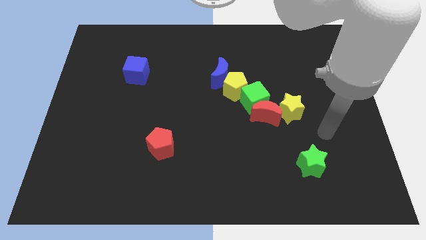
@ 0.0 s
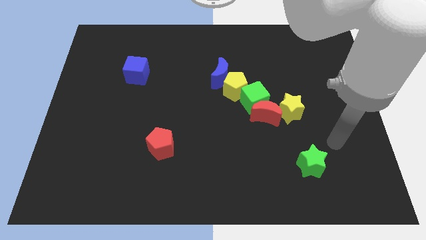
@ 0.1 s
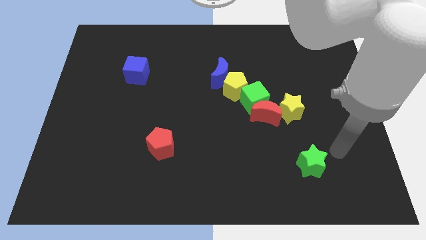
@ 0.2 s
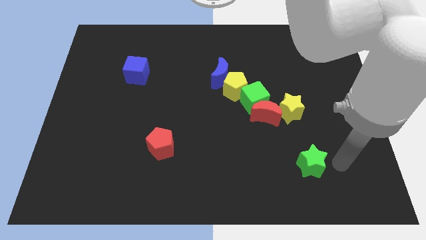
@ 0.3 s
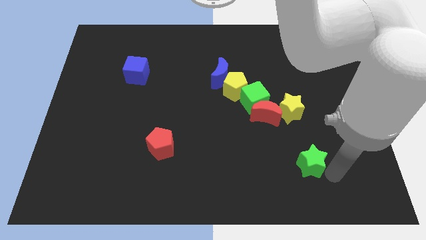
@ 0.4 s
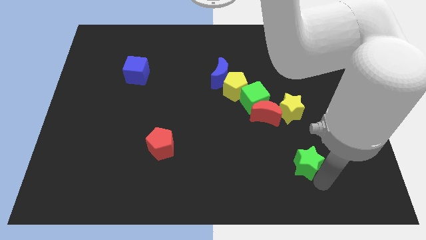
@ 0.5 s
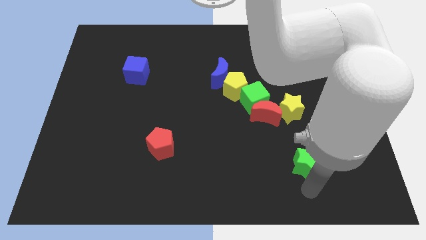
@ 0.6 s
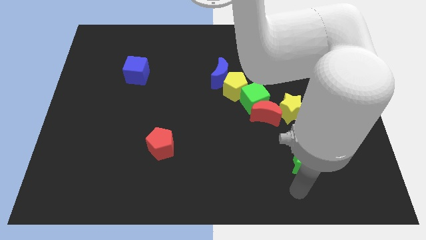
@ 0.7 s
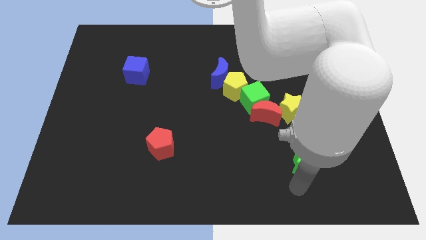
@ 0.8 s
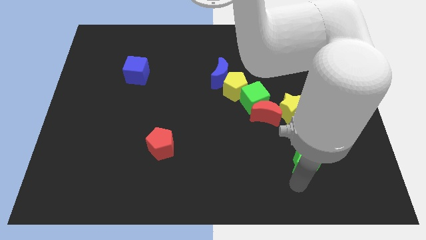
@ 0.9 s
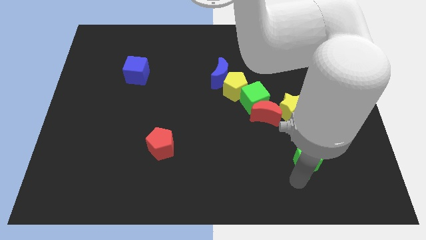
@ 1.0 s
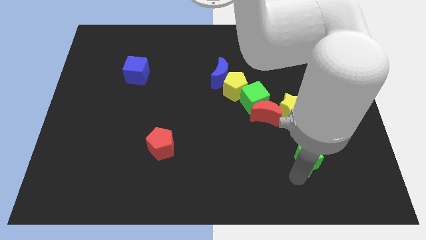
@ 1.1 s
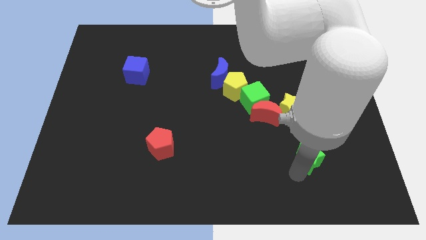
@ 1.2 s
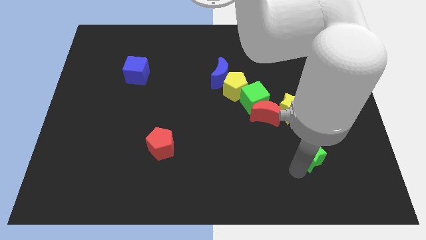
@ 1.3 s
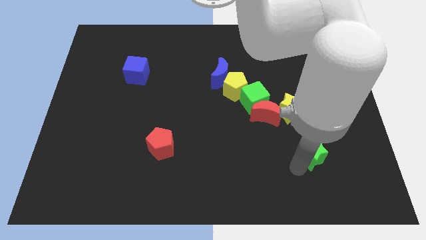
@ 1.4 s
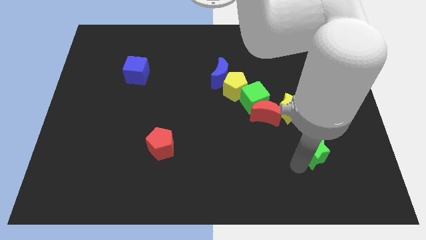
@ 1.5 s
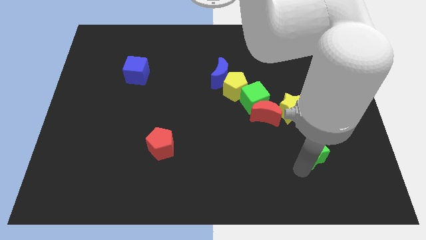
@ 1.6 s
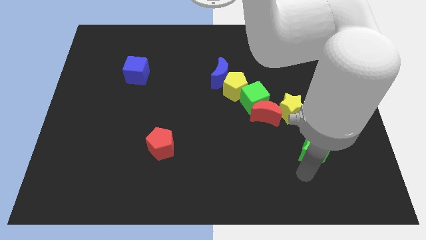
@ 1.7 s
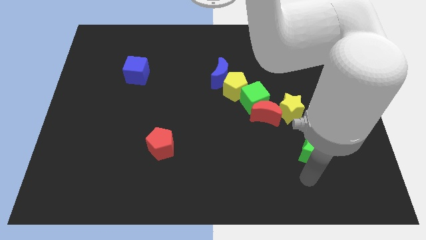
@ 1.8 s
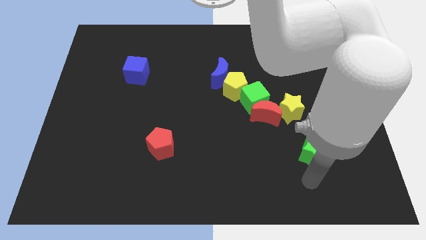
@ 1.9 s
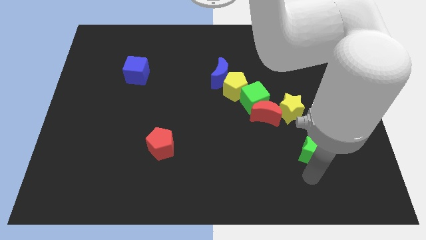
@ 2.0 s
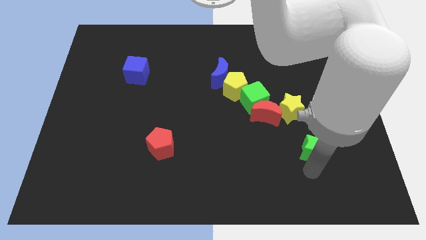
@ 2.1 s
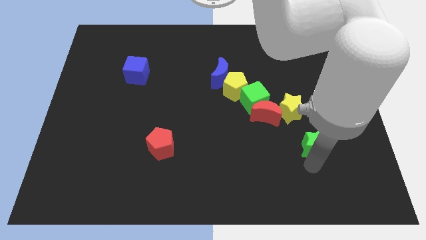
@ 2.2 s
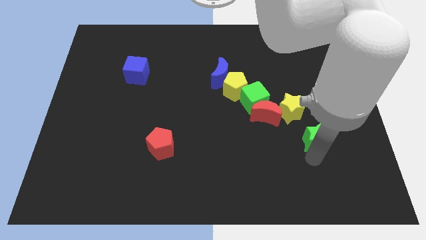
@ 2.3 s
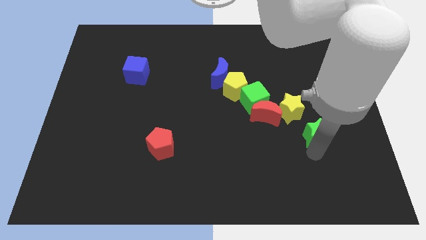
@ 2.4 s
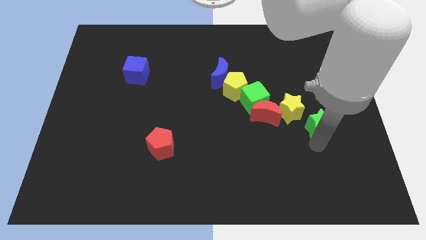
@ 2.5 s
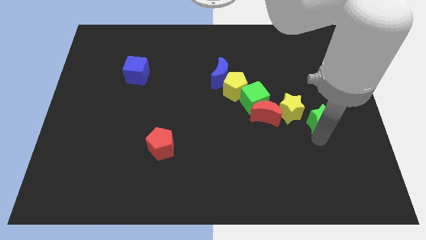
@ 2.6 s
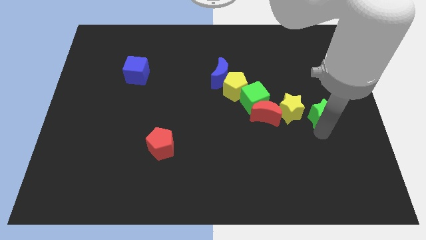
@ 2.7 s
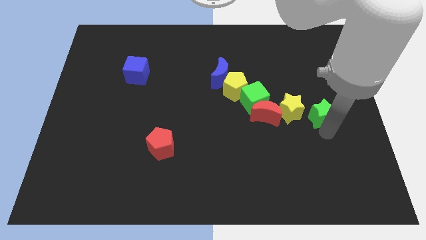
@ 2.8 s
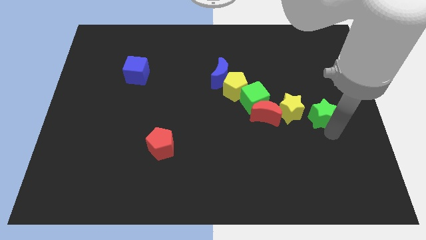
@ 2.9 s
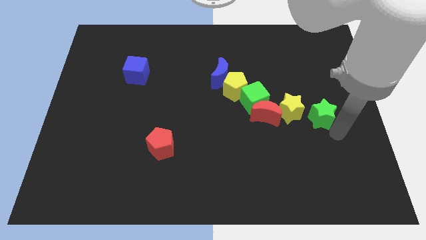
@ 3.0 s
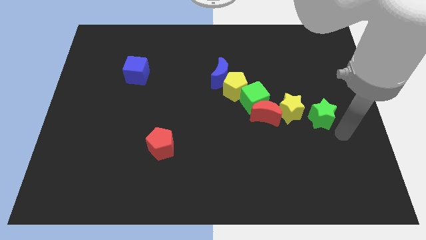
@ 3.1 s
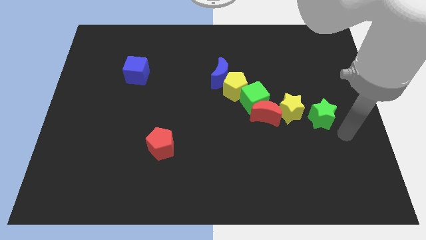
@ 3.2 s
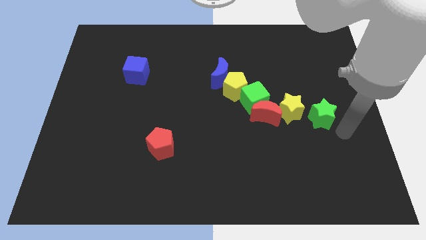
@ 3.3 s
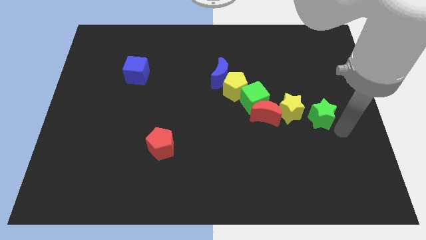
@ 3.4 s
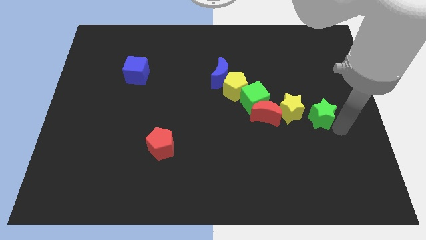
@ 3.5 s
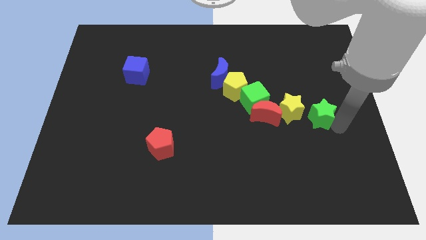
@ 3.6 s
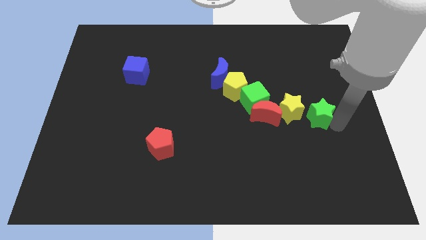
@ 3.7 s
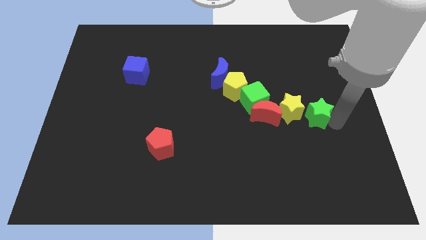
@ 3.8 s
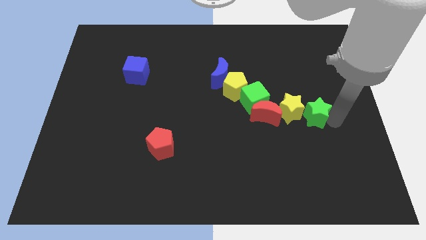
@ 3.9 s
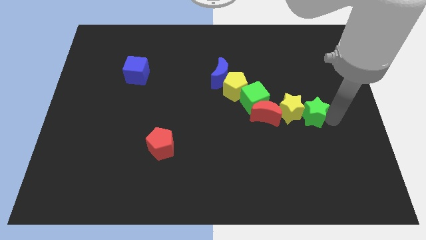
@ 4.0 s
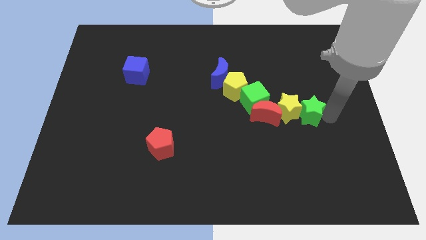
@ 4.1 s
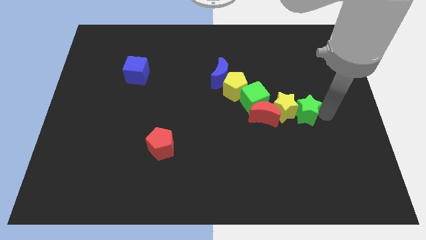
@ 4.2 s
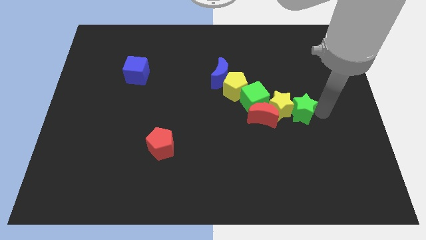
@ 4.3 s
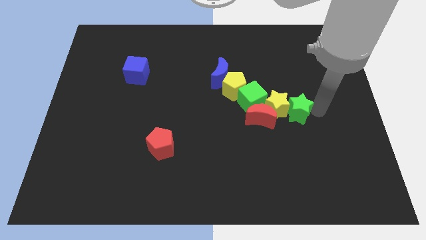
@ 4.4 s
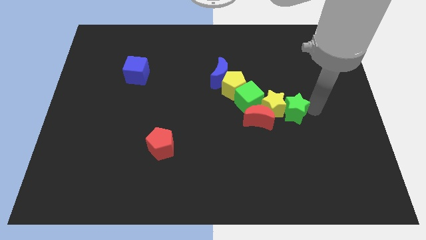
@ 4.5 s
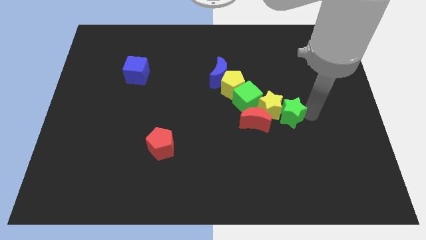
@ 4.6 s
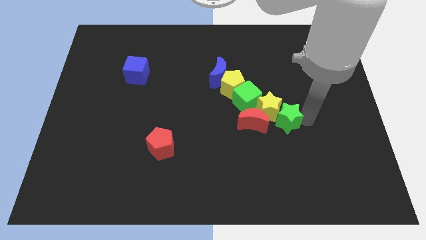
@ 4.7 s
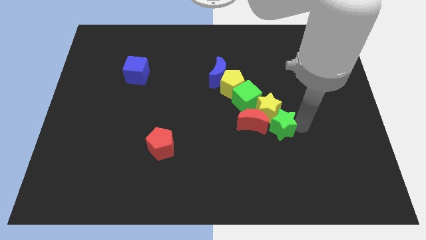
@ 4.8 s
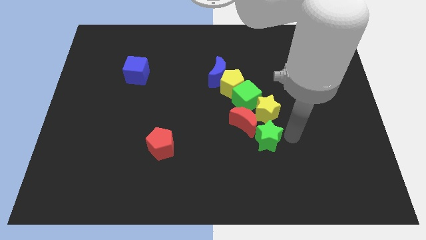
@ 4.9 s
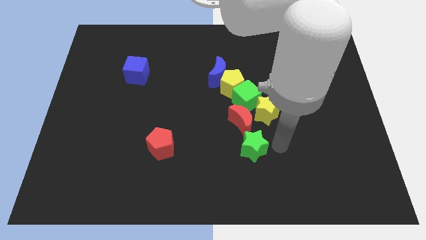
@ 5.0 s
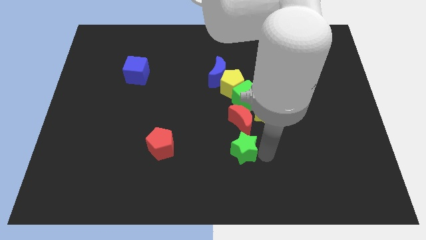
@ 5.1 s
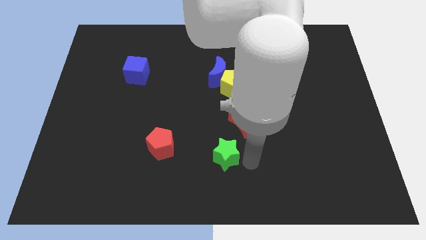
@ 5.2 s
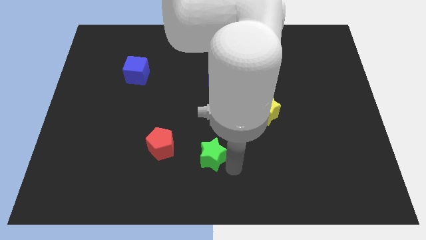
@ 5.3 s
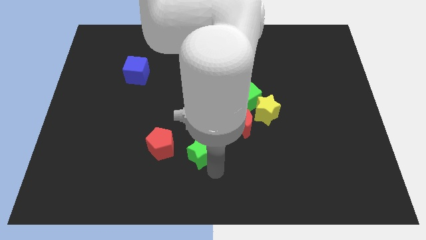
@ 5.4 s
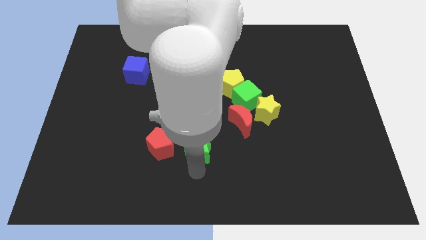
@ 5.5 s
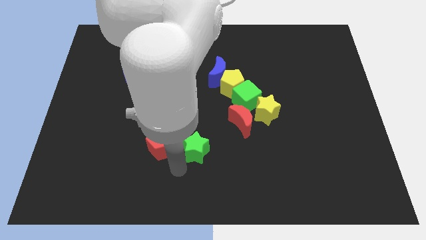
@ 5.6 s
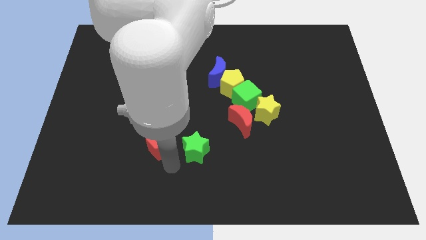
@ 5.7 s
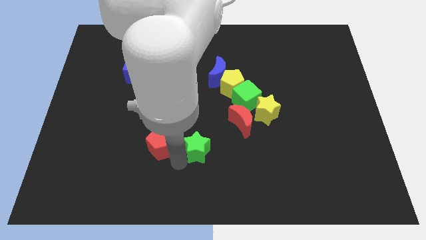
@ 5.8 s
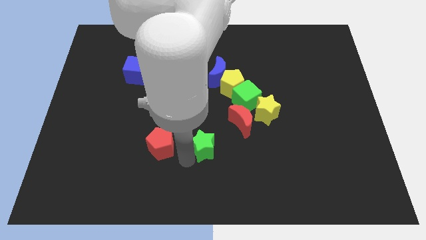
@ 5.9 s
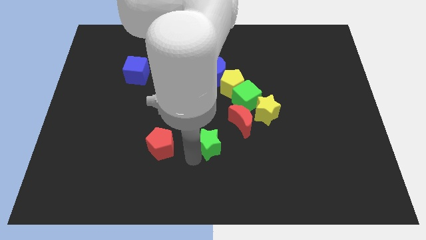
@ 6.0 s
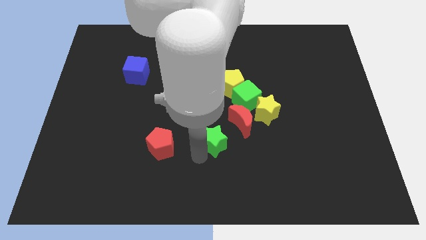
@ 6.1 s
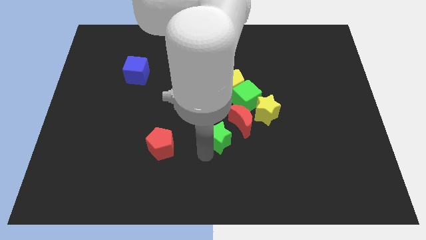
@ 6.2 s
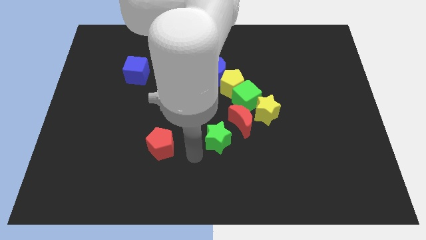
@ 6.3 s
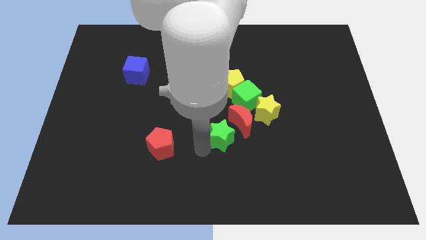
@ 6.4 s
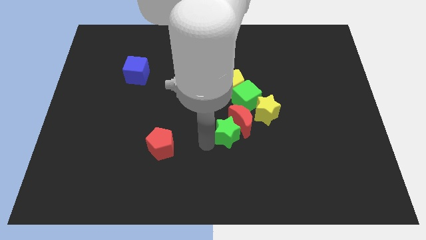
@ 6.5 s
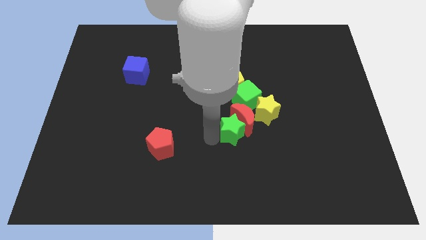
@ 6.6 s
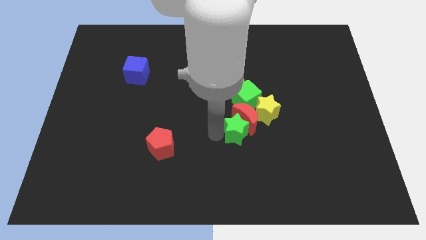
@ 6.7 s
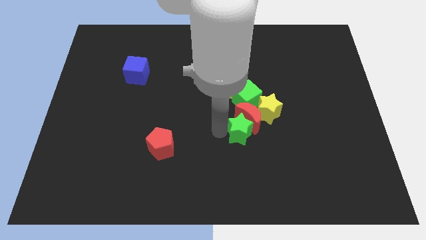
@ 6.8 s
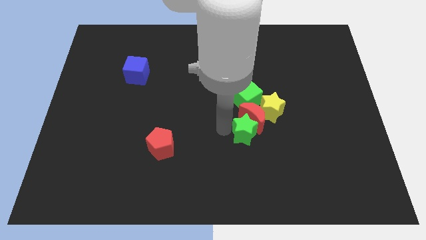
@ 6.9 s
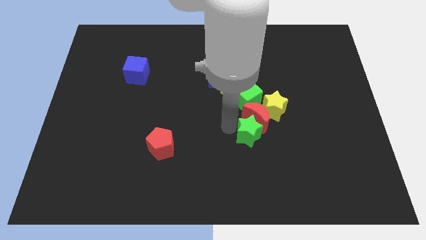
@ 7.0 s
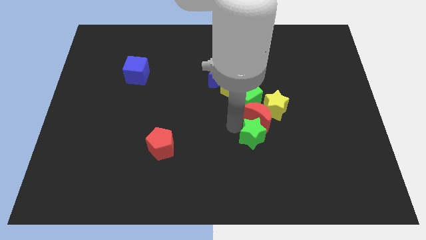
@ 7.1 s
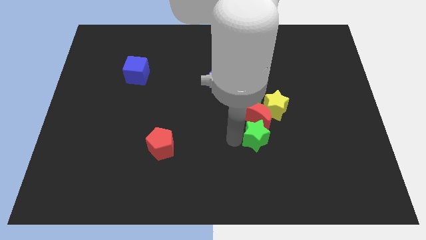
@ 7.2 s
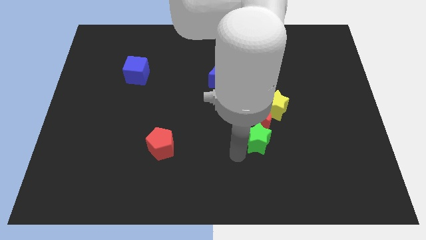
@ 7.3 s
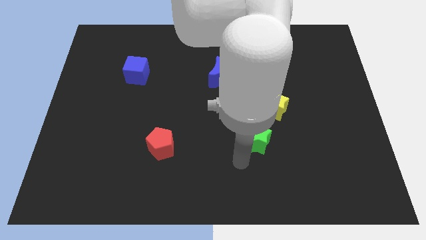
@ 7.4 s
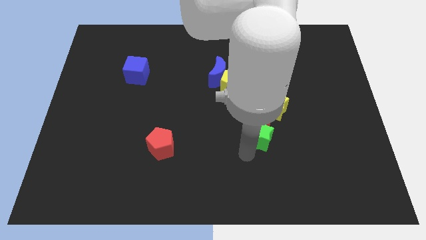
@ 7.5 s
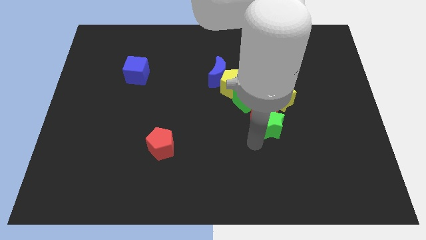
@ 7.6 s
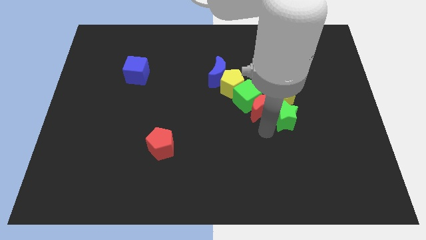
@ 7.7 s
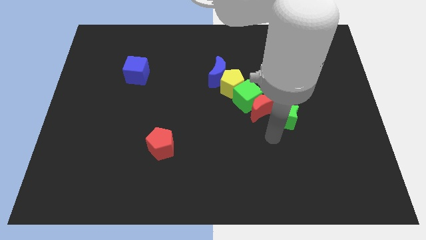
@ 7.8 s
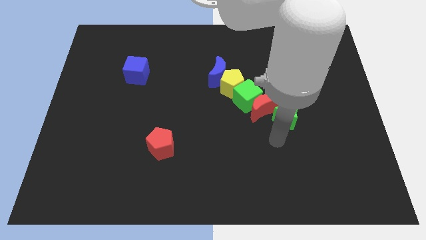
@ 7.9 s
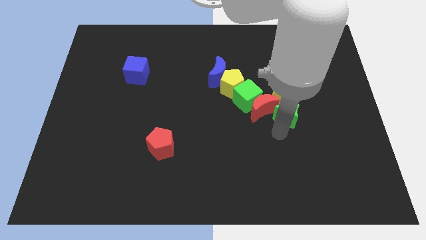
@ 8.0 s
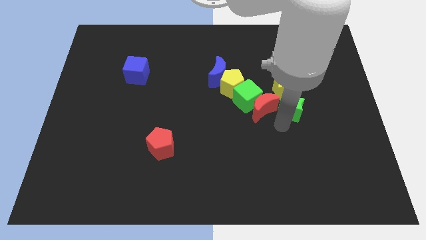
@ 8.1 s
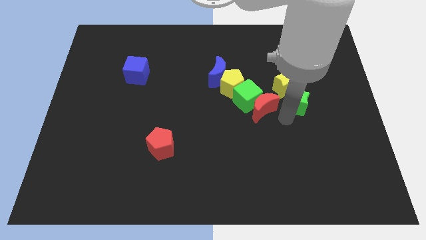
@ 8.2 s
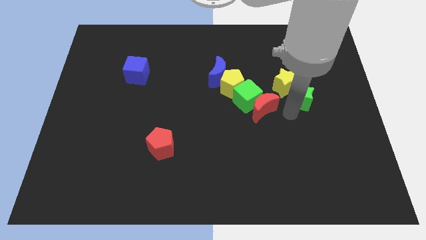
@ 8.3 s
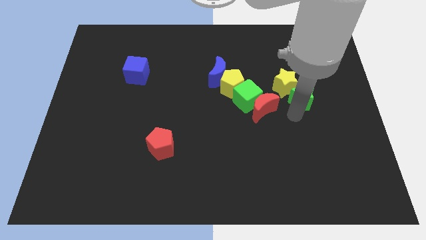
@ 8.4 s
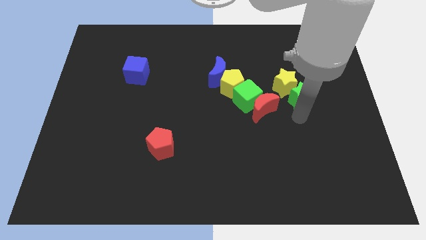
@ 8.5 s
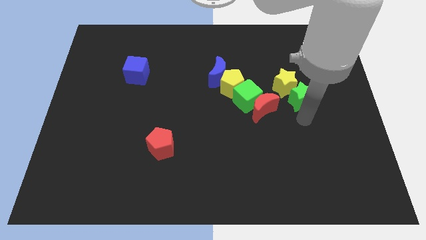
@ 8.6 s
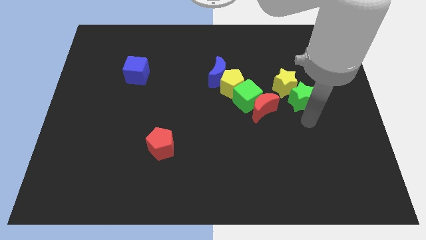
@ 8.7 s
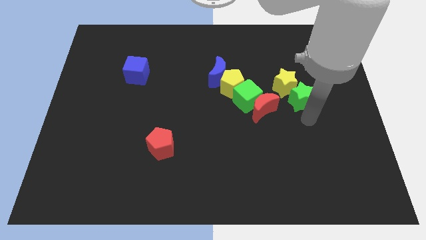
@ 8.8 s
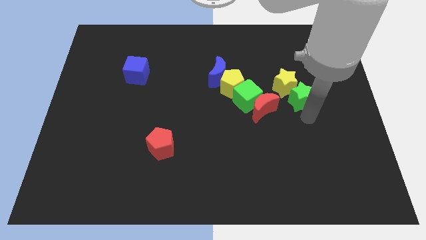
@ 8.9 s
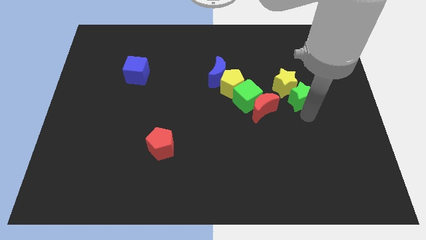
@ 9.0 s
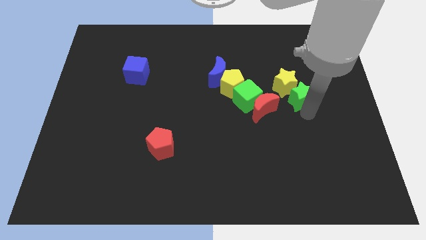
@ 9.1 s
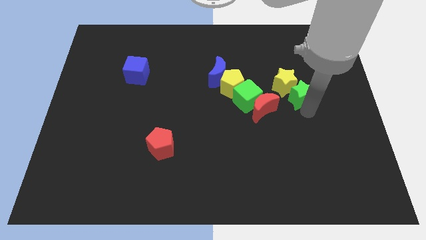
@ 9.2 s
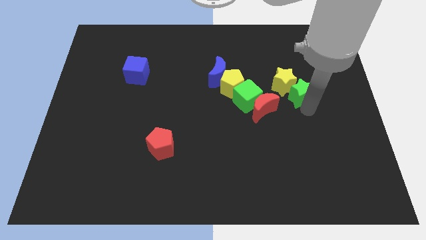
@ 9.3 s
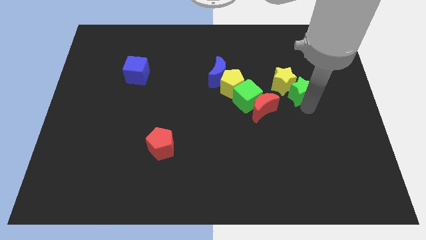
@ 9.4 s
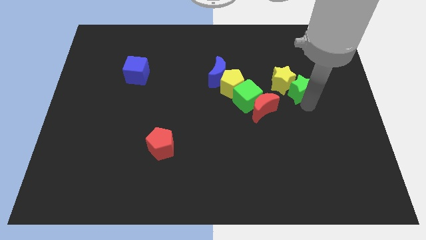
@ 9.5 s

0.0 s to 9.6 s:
push the green star up
